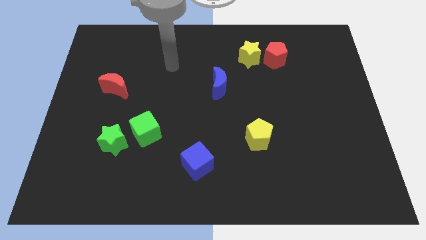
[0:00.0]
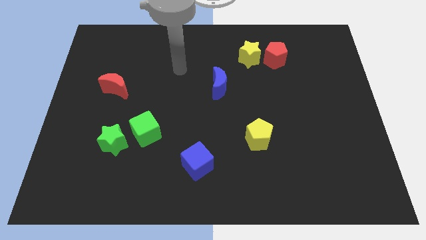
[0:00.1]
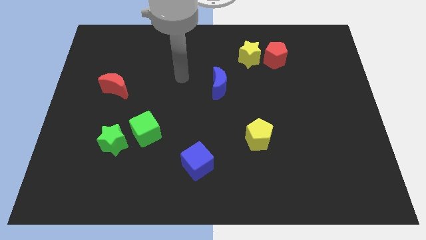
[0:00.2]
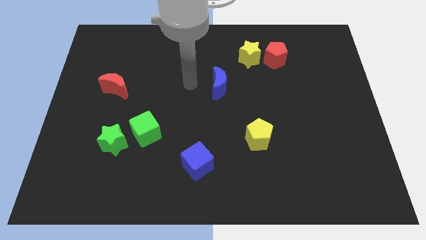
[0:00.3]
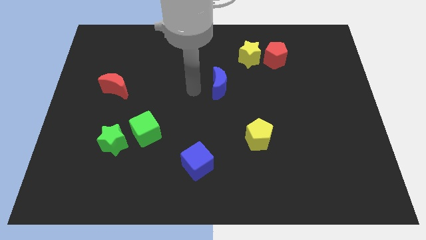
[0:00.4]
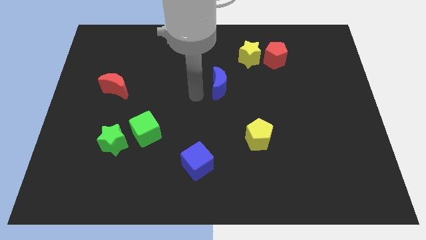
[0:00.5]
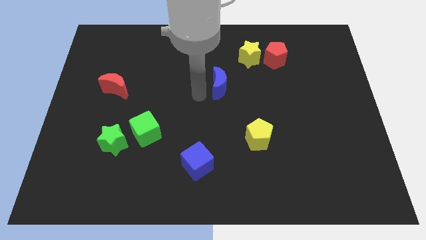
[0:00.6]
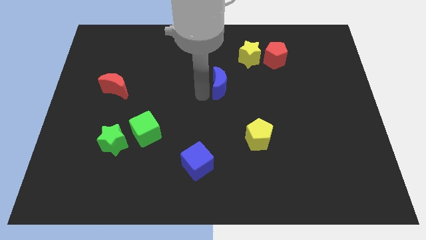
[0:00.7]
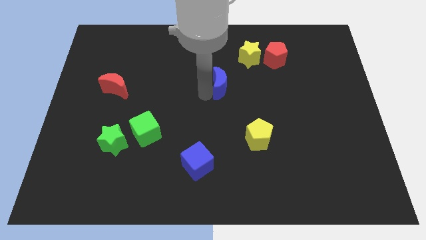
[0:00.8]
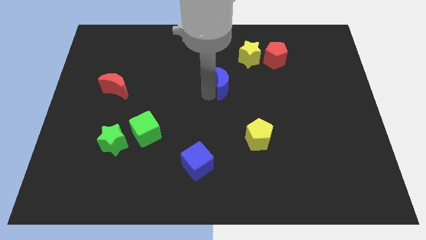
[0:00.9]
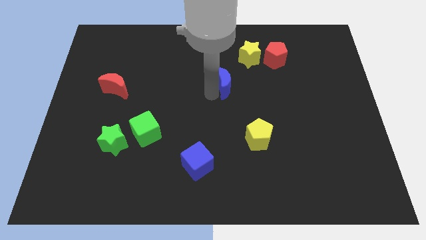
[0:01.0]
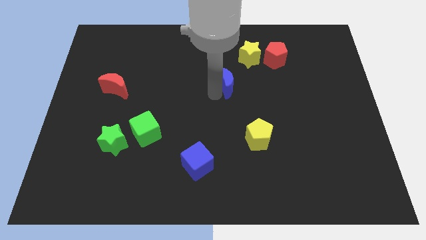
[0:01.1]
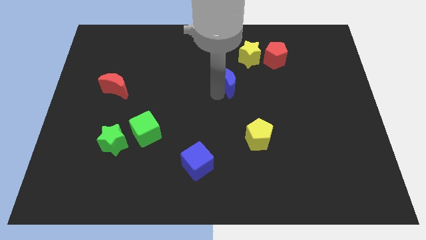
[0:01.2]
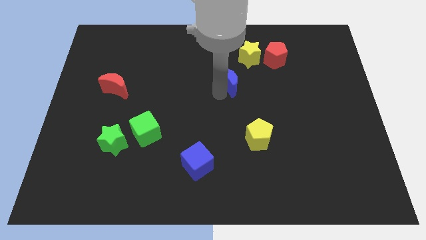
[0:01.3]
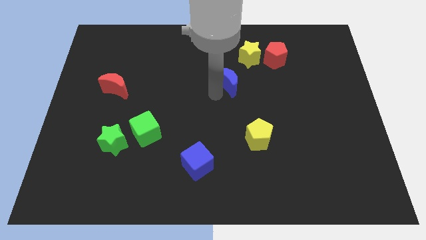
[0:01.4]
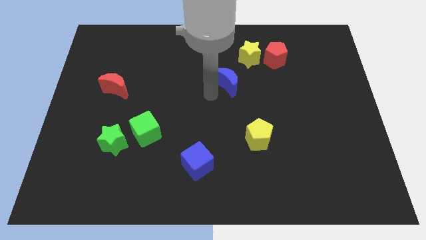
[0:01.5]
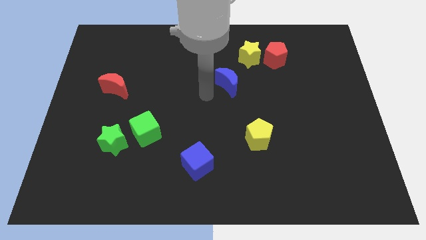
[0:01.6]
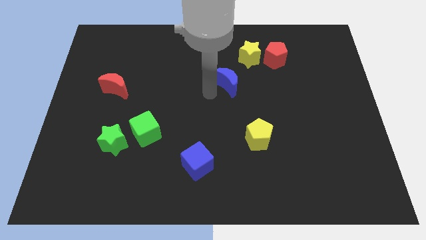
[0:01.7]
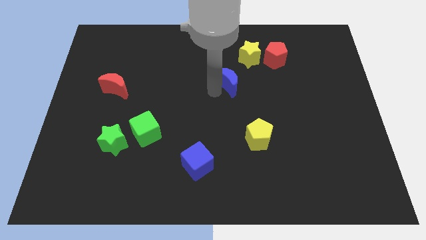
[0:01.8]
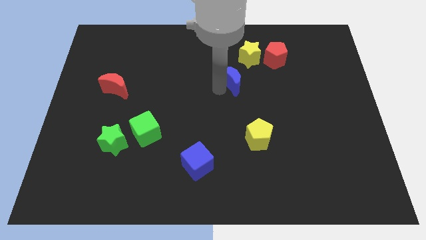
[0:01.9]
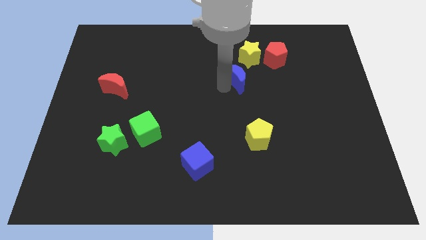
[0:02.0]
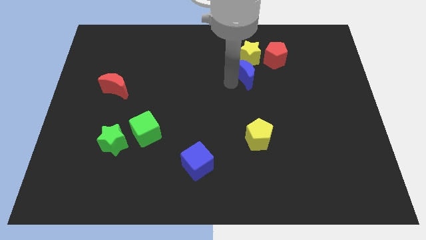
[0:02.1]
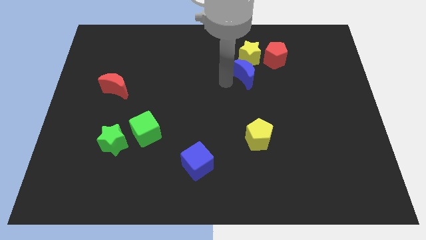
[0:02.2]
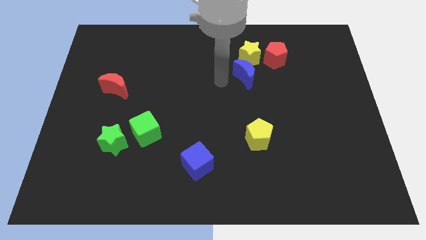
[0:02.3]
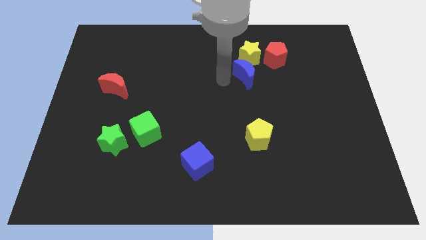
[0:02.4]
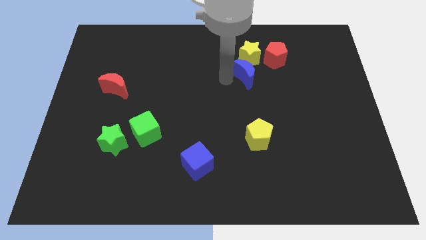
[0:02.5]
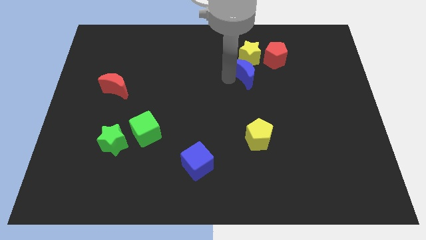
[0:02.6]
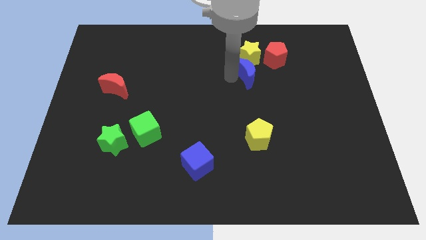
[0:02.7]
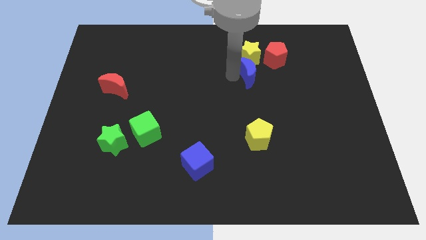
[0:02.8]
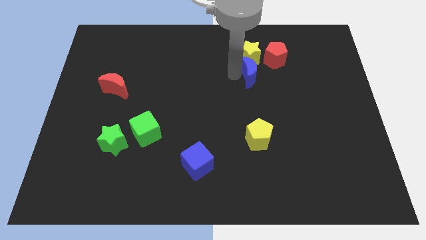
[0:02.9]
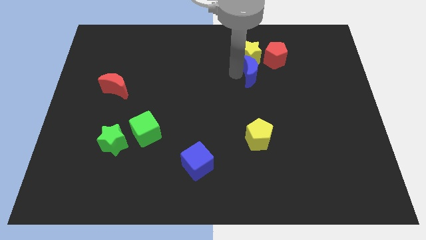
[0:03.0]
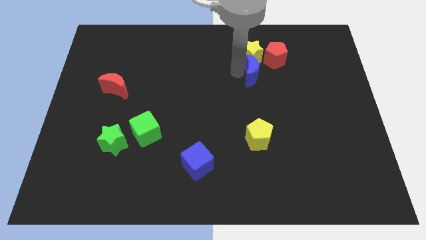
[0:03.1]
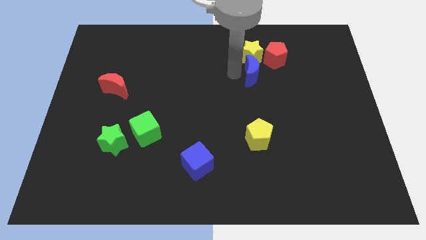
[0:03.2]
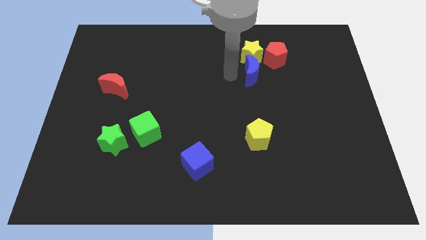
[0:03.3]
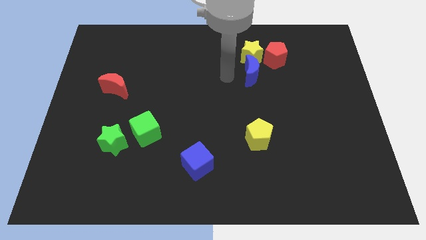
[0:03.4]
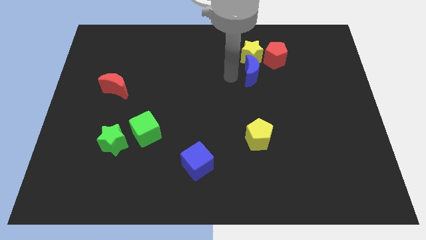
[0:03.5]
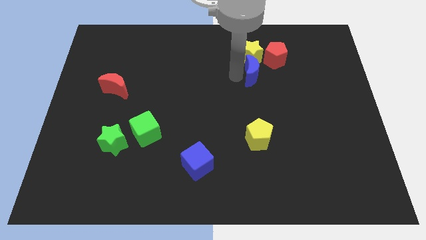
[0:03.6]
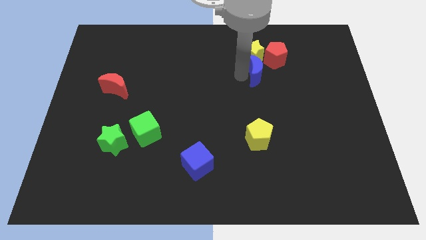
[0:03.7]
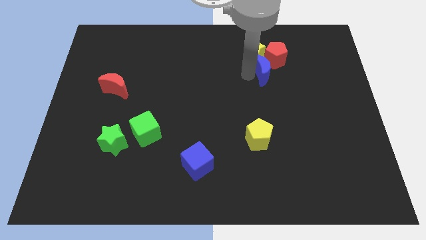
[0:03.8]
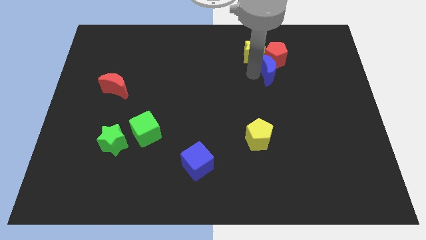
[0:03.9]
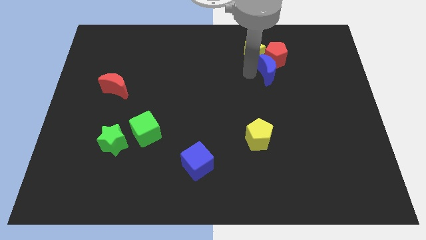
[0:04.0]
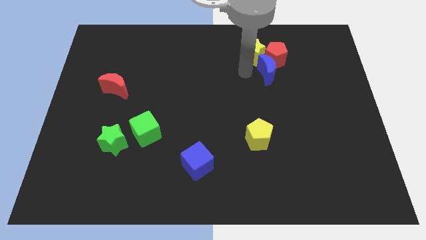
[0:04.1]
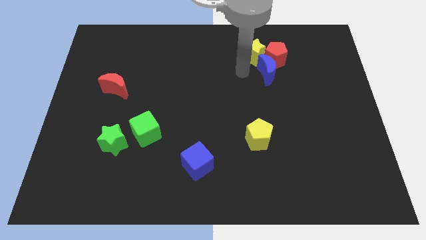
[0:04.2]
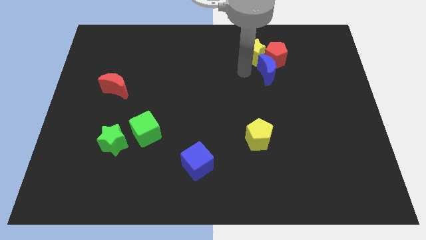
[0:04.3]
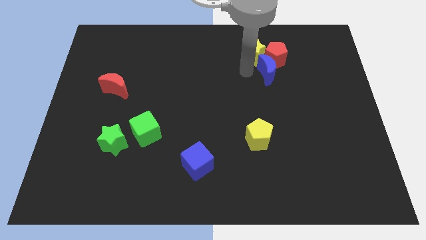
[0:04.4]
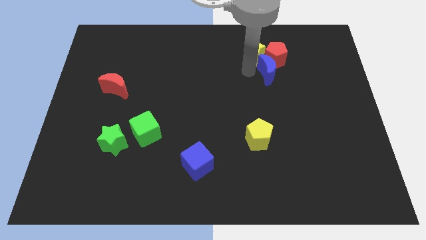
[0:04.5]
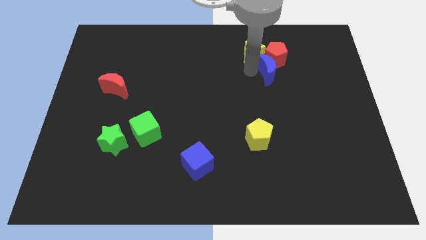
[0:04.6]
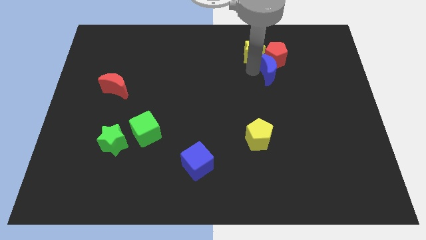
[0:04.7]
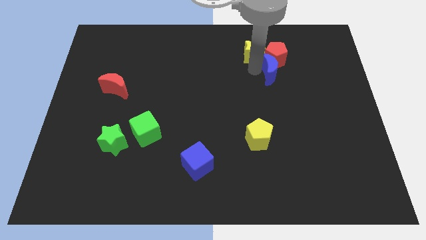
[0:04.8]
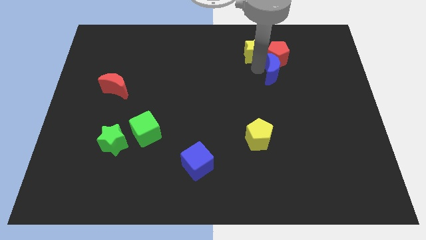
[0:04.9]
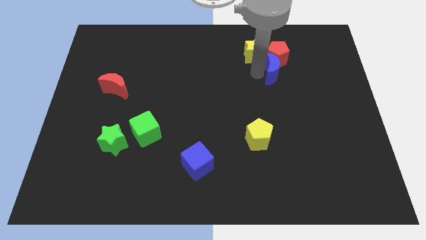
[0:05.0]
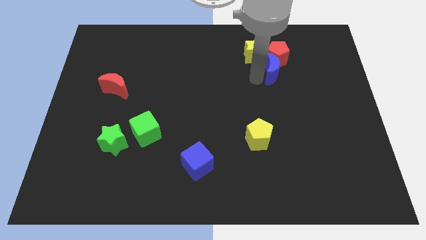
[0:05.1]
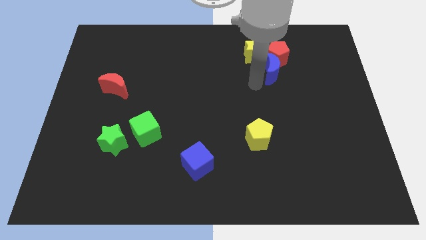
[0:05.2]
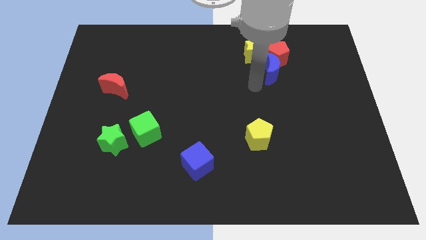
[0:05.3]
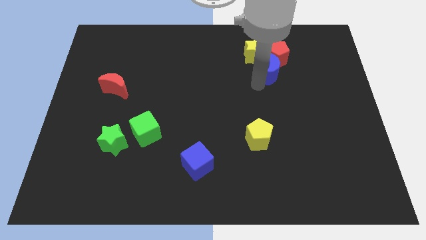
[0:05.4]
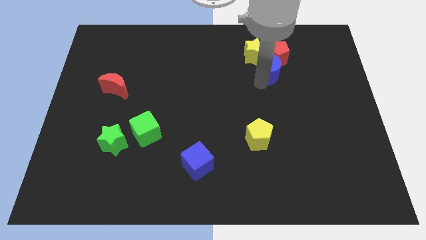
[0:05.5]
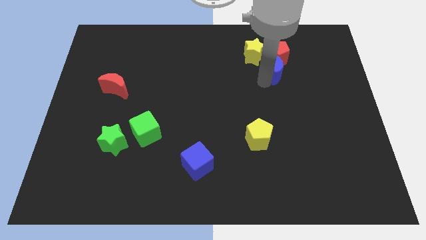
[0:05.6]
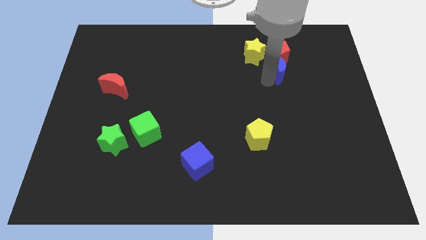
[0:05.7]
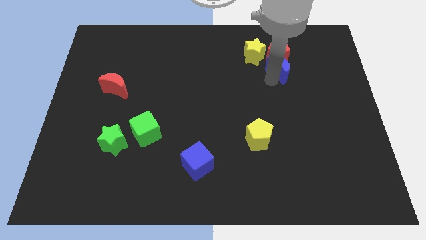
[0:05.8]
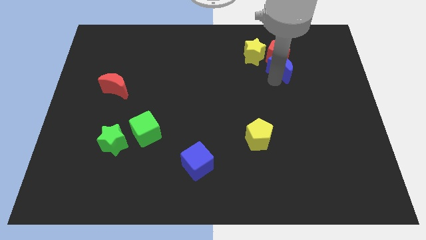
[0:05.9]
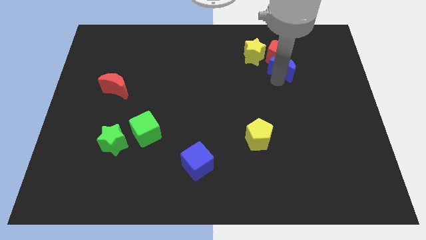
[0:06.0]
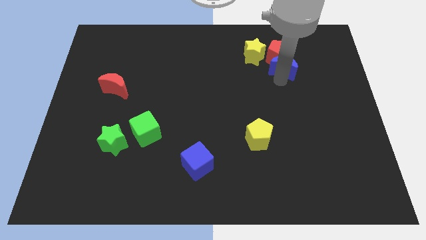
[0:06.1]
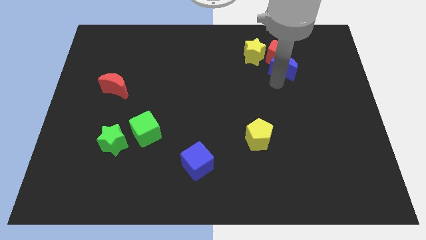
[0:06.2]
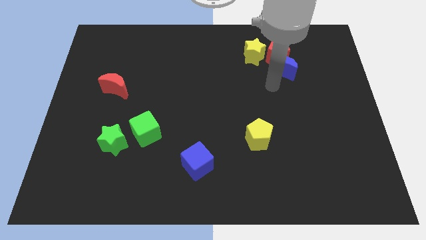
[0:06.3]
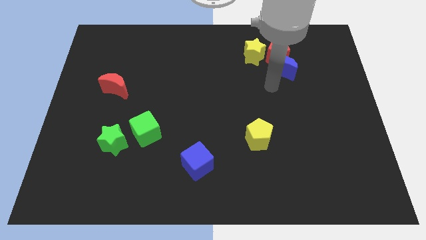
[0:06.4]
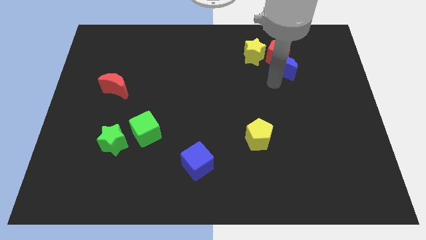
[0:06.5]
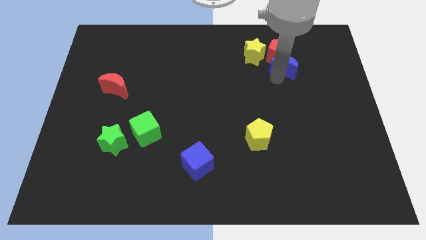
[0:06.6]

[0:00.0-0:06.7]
move the blue moon just right of the yellow star
